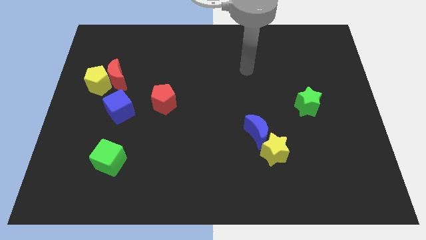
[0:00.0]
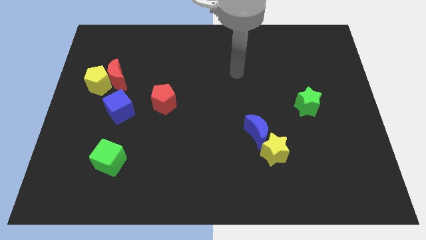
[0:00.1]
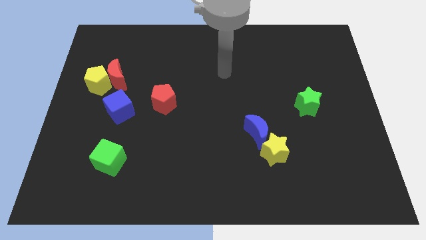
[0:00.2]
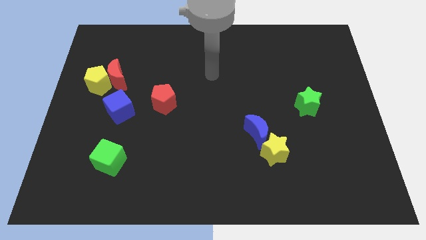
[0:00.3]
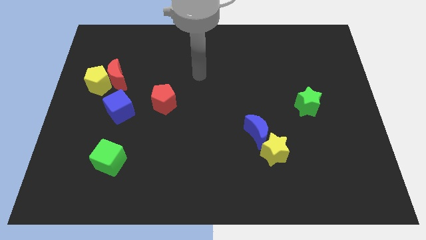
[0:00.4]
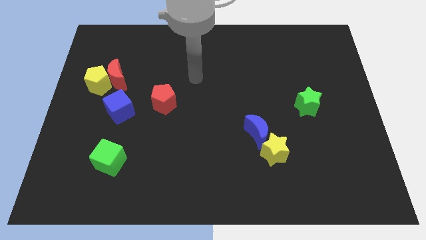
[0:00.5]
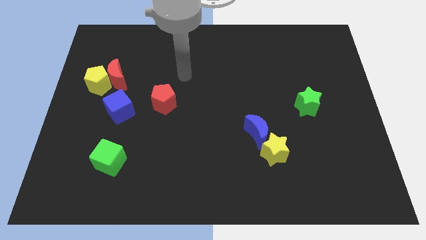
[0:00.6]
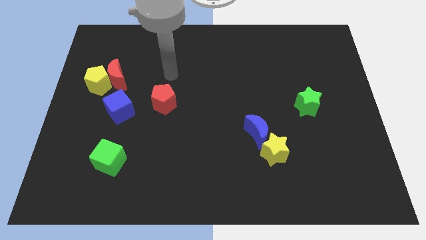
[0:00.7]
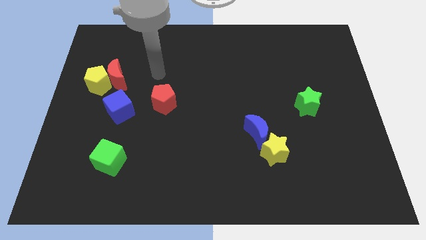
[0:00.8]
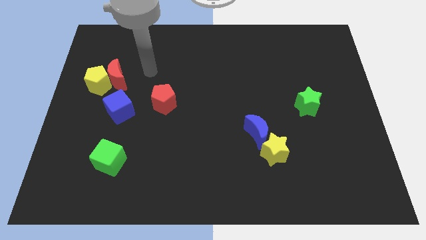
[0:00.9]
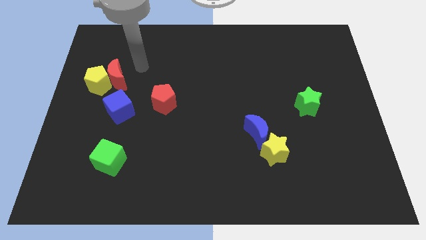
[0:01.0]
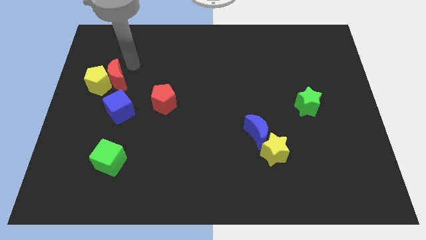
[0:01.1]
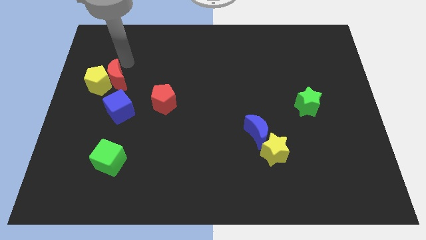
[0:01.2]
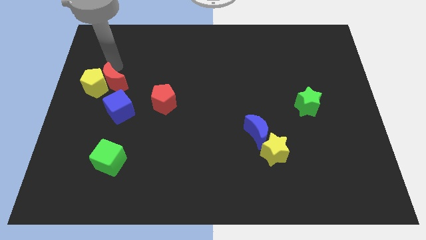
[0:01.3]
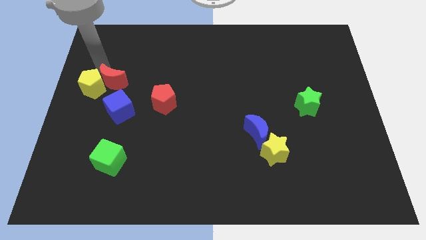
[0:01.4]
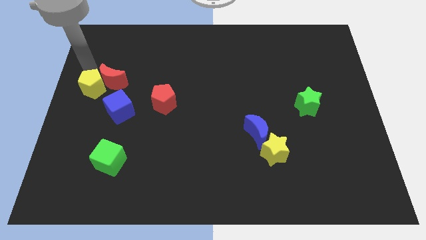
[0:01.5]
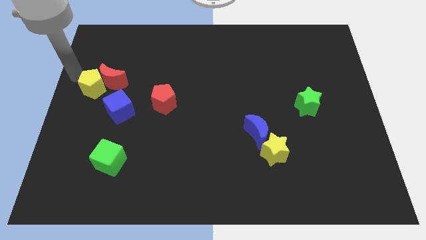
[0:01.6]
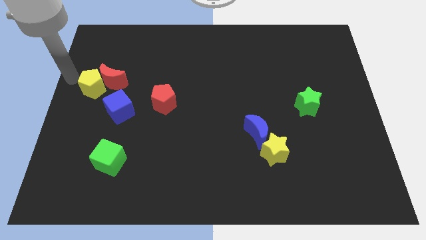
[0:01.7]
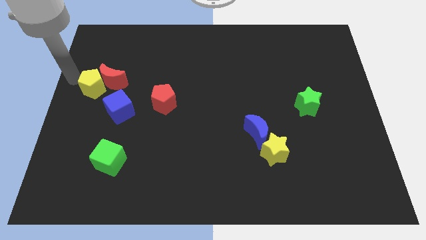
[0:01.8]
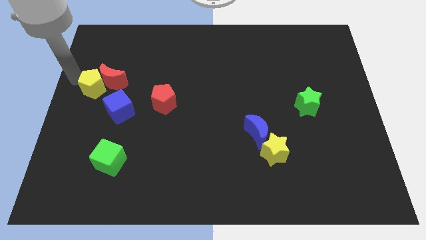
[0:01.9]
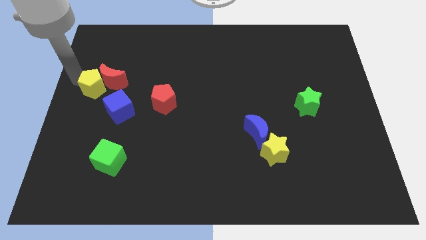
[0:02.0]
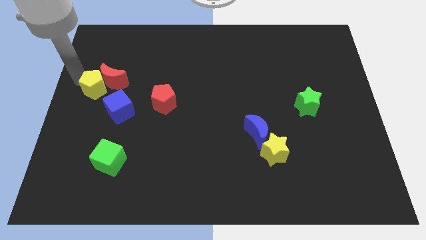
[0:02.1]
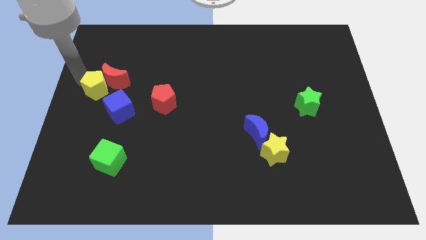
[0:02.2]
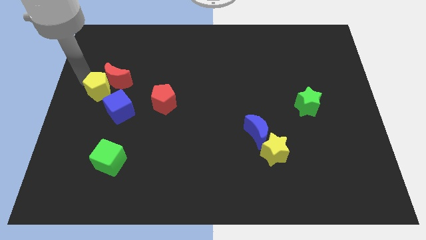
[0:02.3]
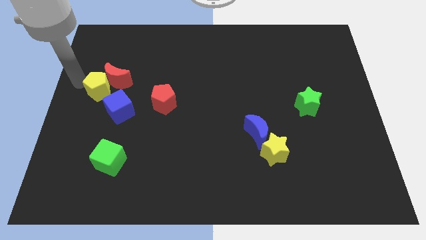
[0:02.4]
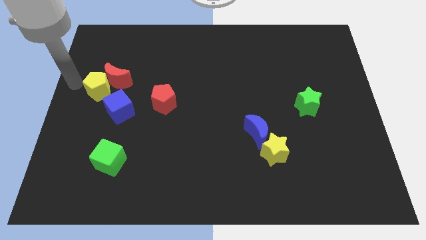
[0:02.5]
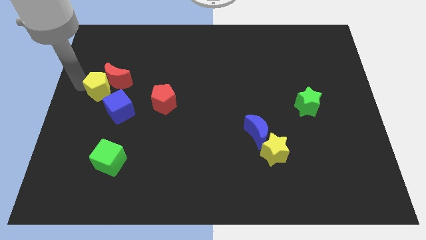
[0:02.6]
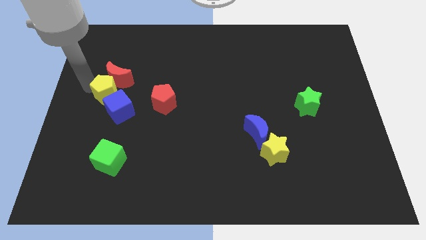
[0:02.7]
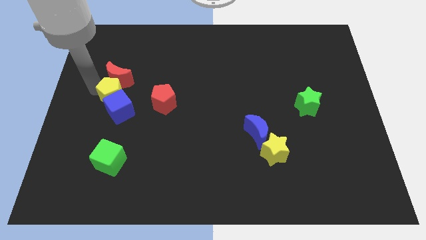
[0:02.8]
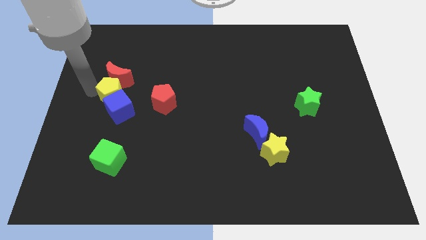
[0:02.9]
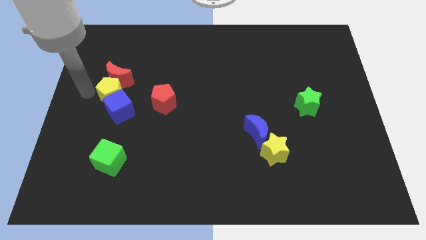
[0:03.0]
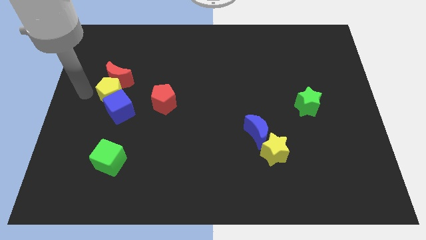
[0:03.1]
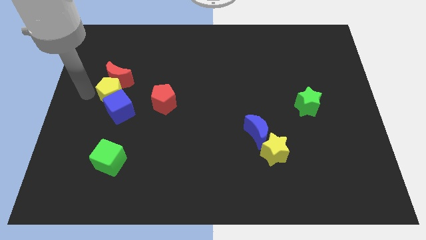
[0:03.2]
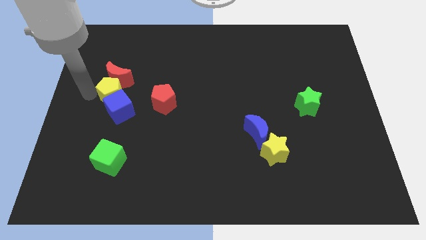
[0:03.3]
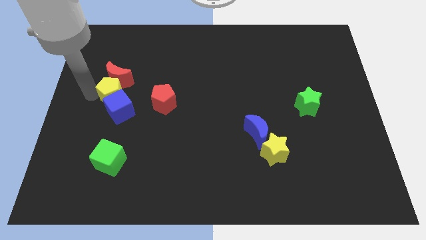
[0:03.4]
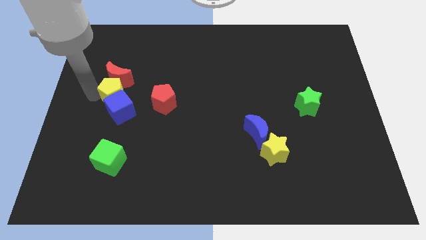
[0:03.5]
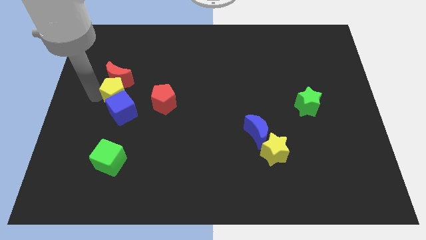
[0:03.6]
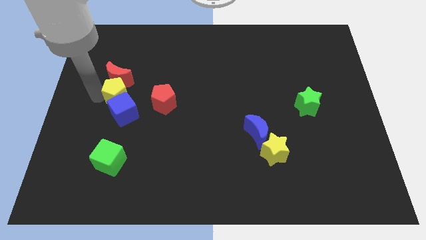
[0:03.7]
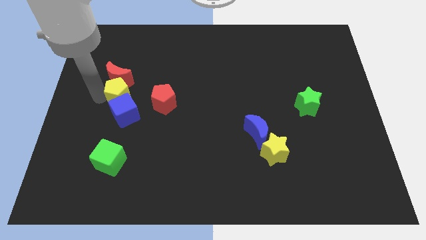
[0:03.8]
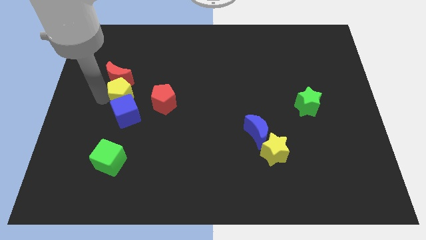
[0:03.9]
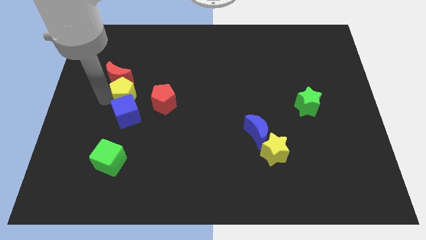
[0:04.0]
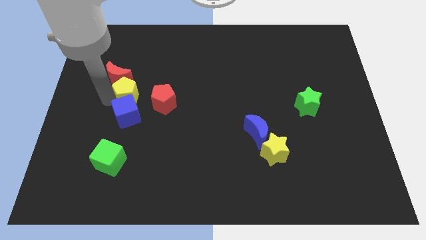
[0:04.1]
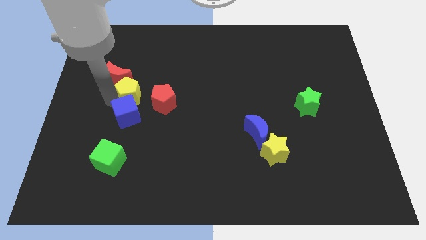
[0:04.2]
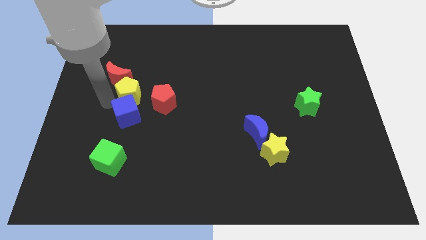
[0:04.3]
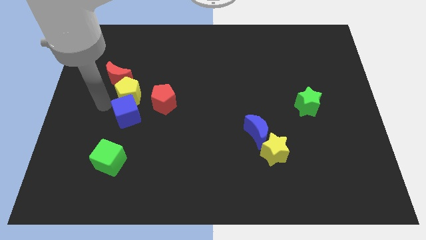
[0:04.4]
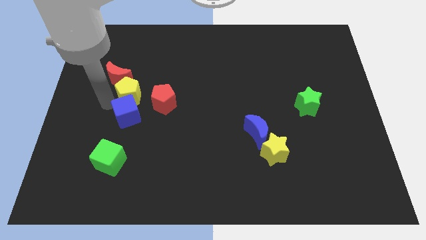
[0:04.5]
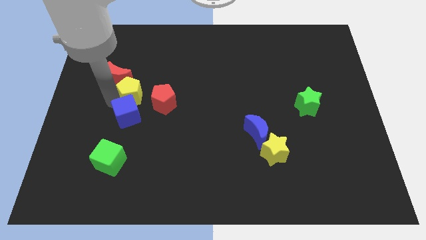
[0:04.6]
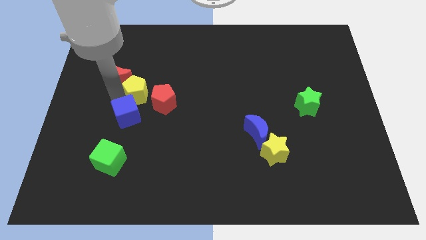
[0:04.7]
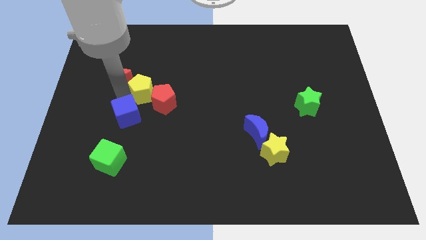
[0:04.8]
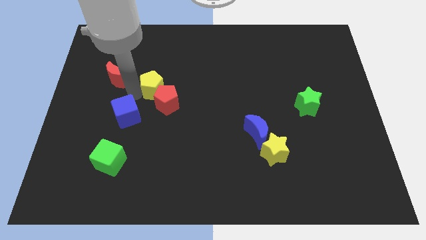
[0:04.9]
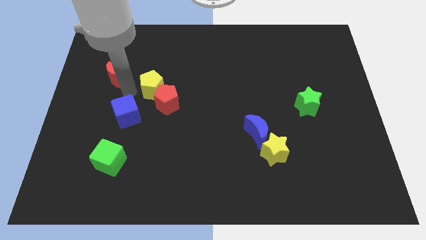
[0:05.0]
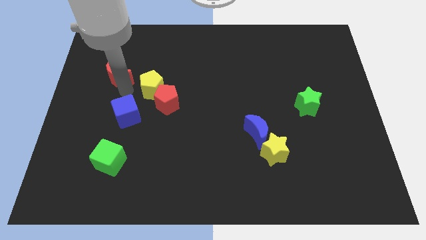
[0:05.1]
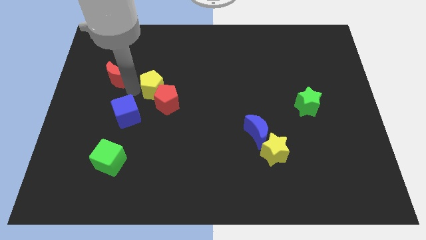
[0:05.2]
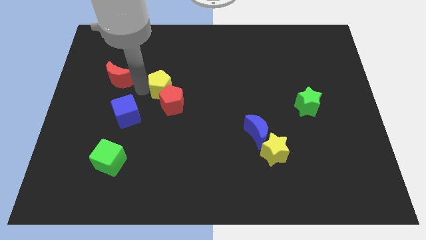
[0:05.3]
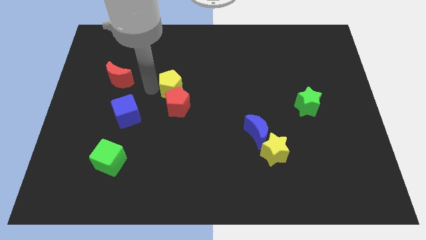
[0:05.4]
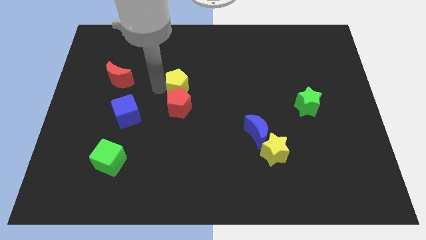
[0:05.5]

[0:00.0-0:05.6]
move the yellow pentagon diagonally up and to the right of the red pentagon

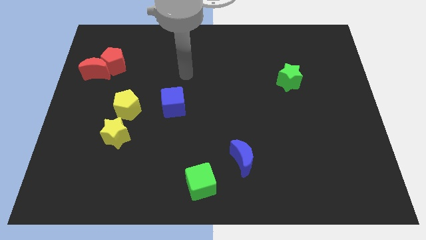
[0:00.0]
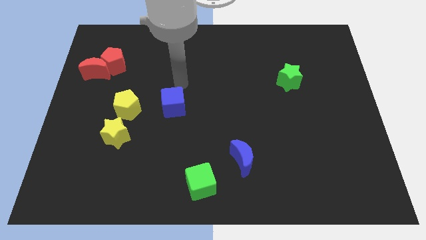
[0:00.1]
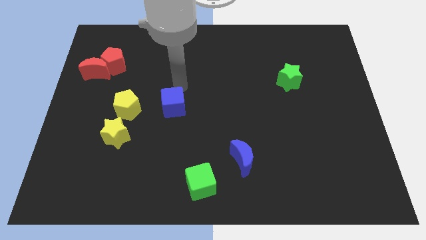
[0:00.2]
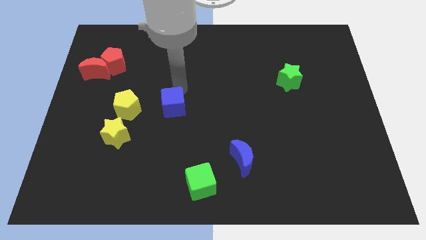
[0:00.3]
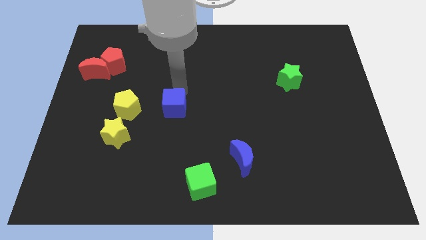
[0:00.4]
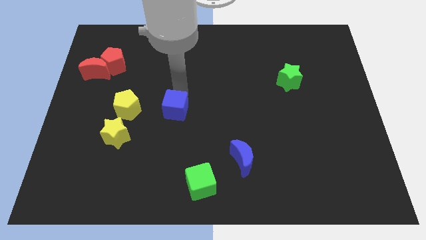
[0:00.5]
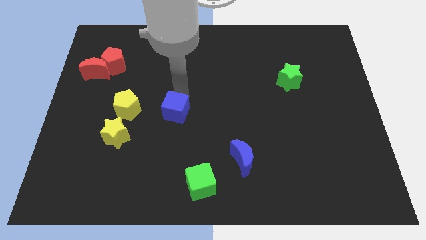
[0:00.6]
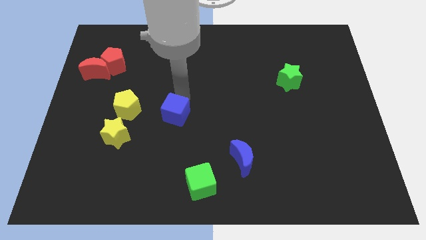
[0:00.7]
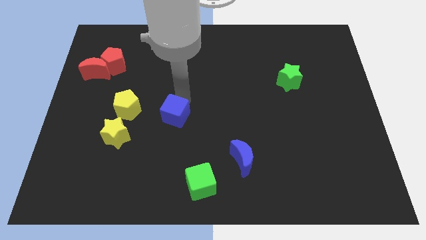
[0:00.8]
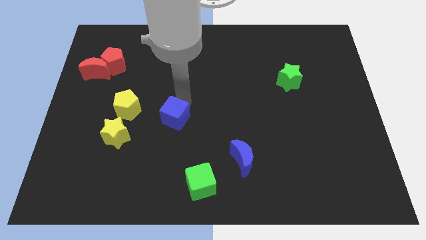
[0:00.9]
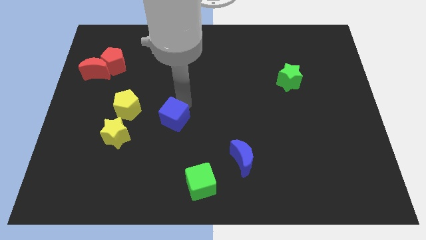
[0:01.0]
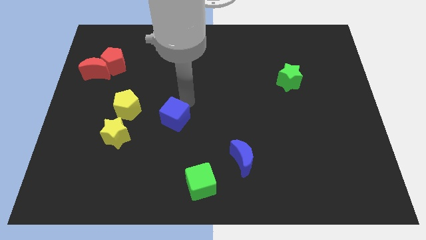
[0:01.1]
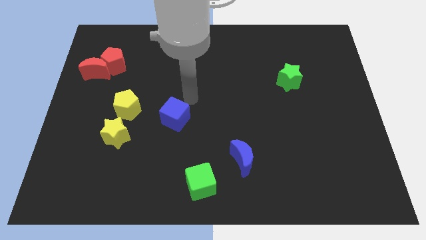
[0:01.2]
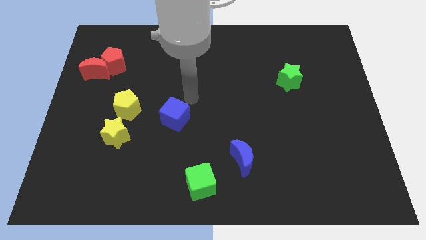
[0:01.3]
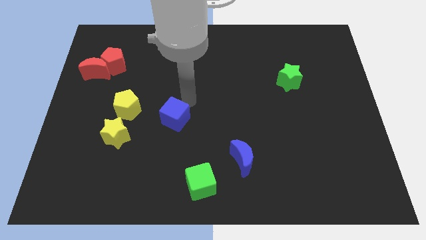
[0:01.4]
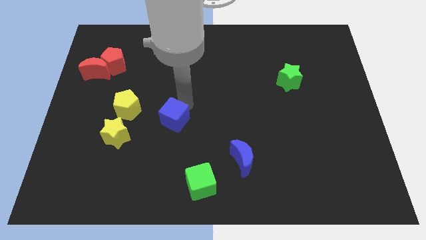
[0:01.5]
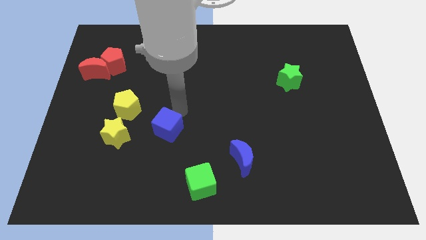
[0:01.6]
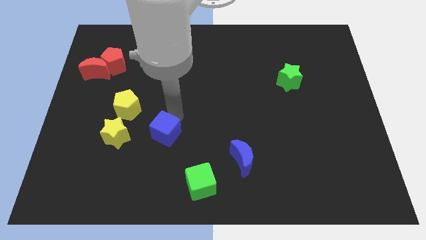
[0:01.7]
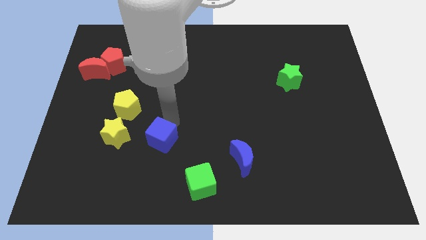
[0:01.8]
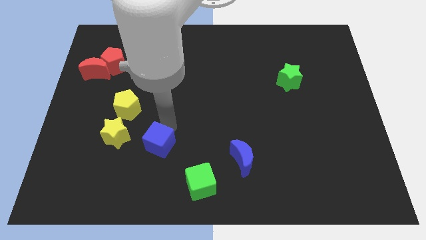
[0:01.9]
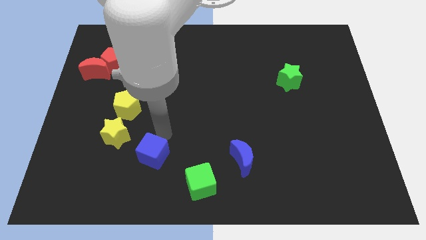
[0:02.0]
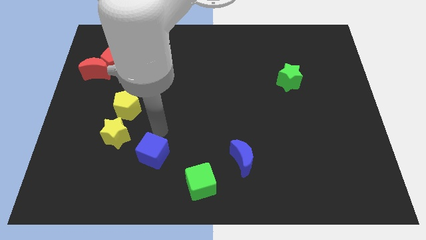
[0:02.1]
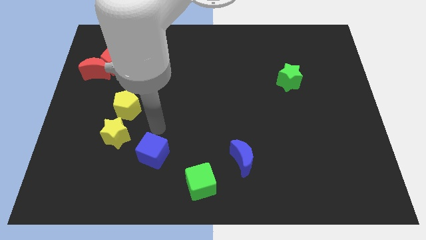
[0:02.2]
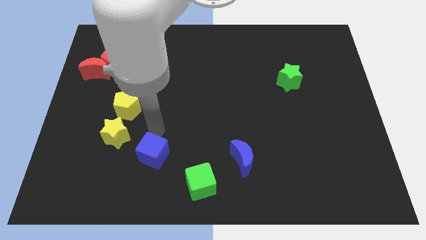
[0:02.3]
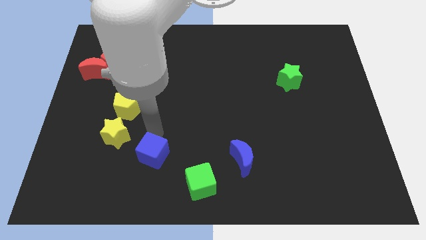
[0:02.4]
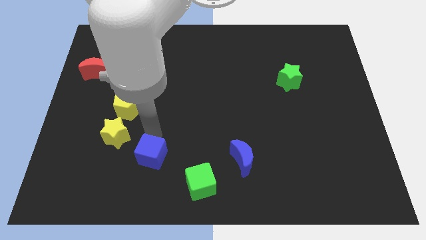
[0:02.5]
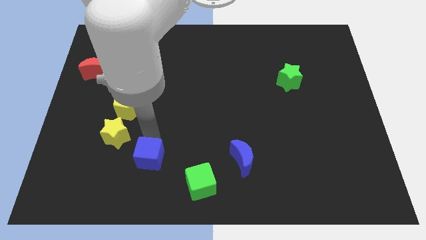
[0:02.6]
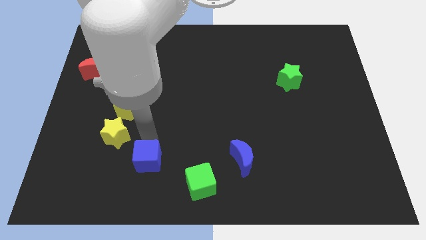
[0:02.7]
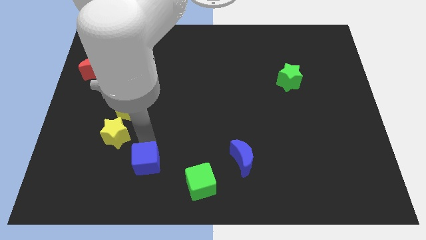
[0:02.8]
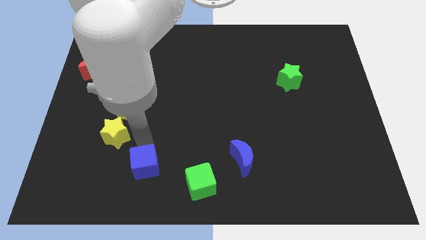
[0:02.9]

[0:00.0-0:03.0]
put the blue cube just left of the green cube
